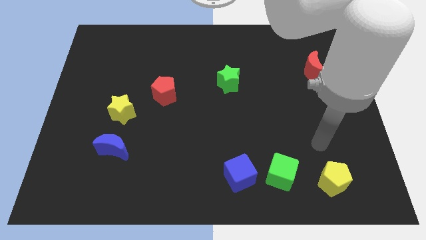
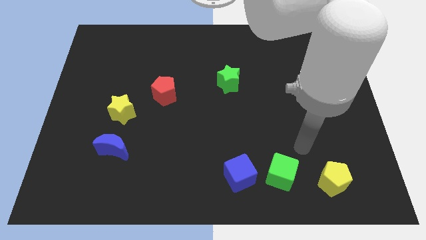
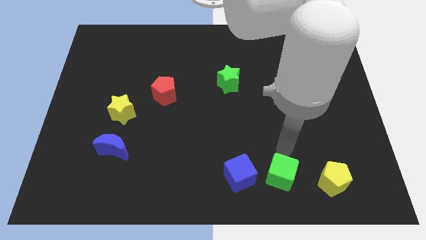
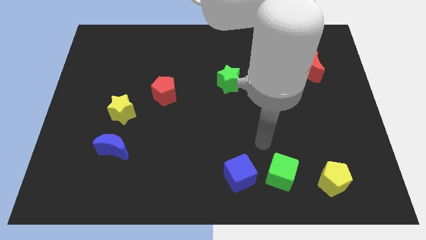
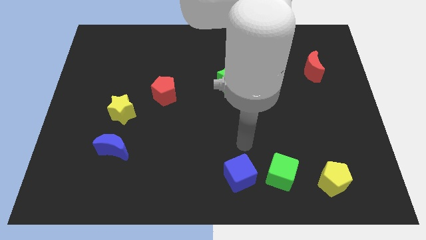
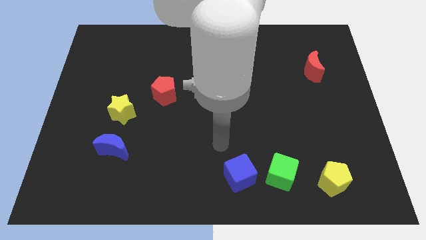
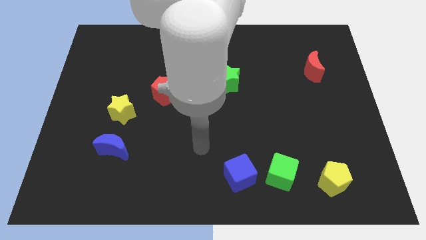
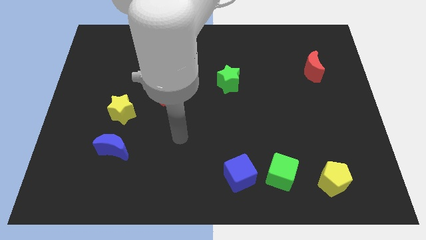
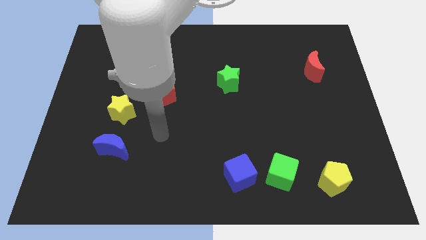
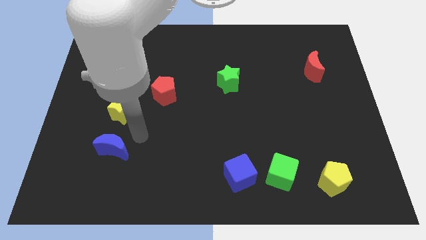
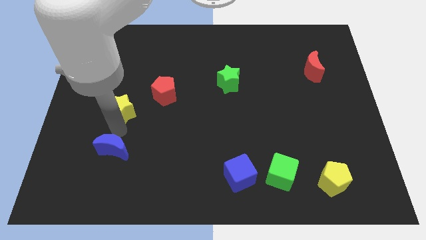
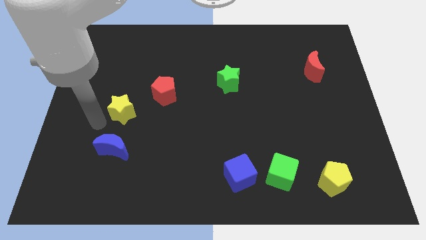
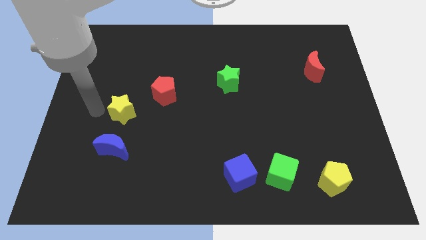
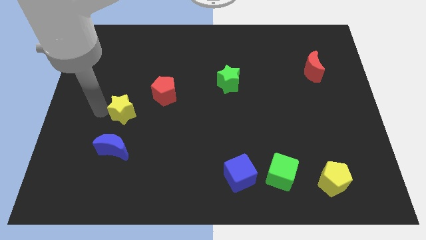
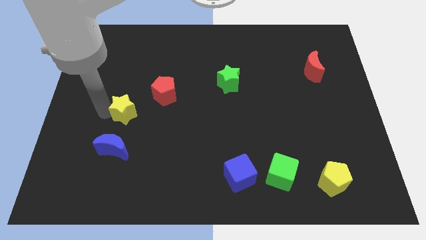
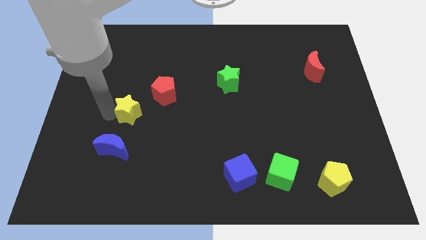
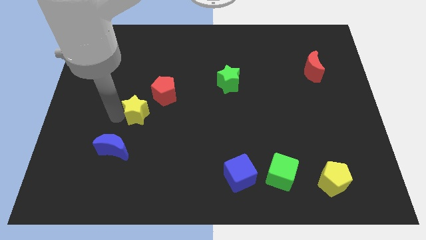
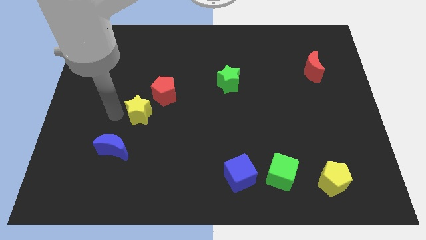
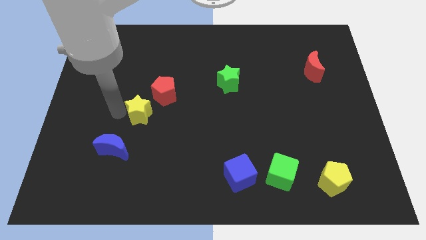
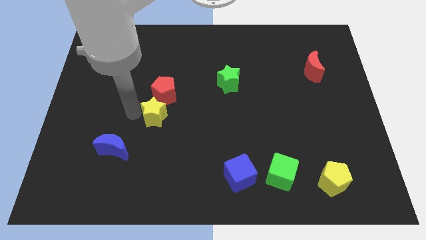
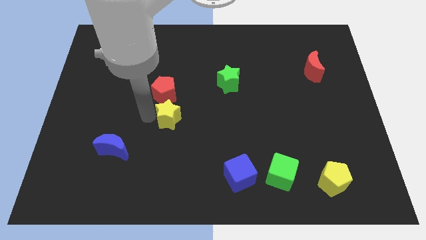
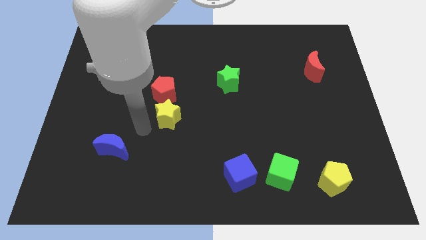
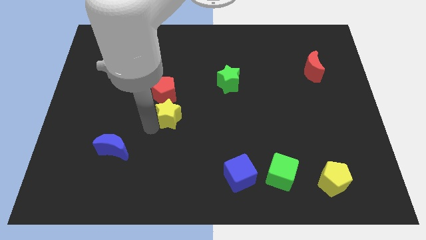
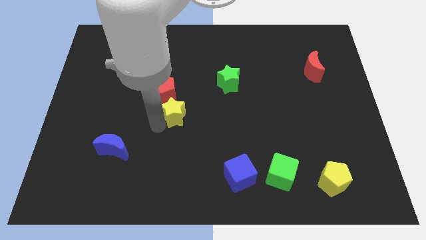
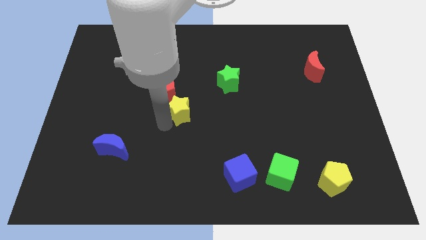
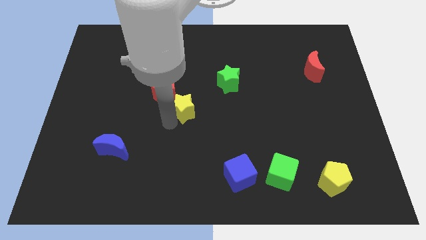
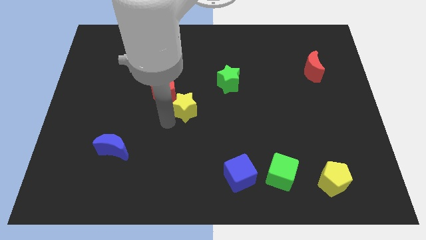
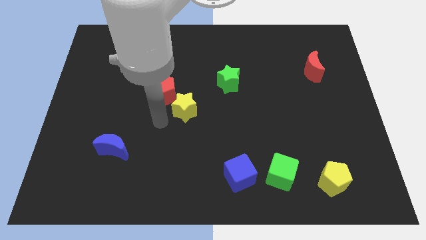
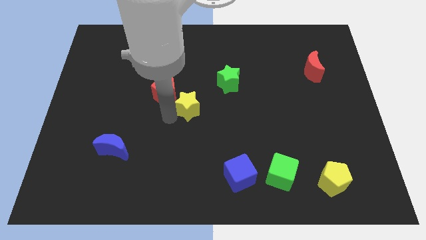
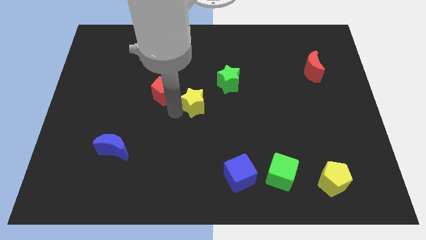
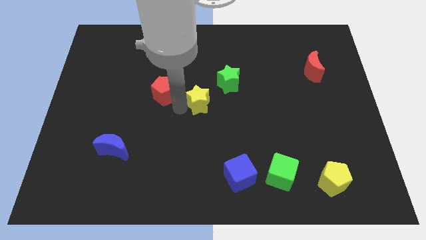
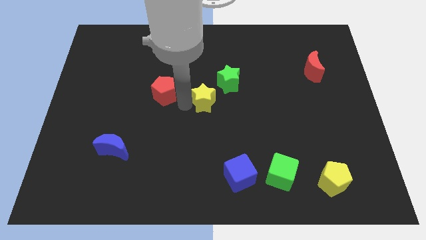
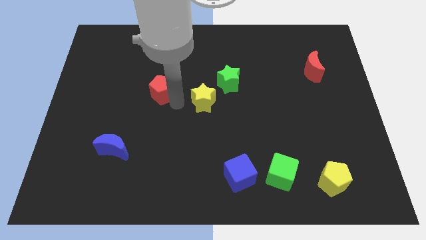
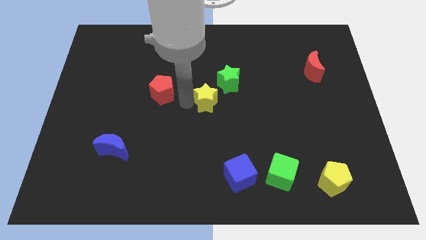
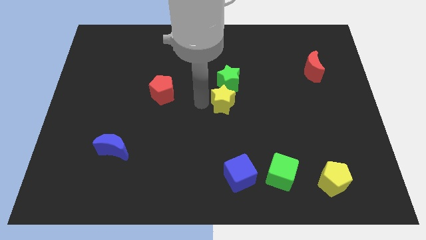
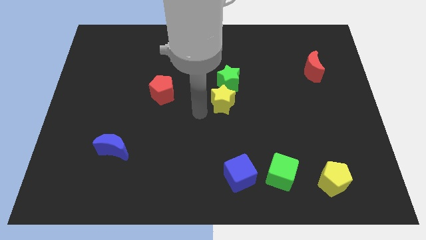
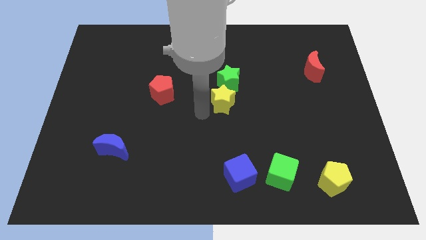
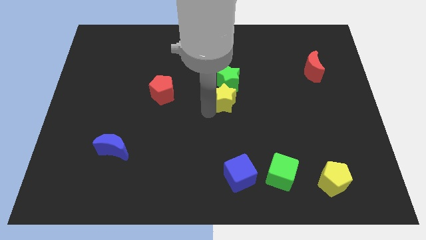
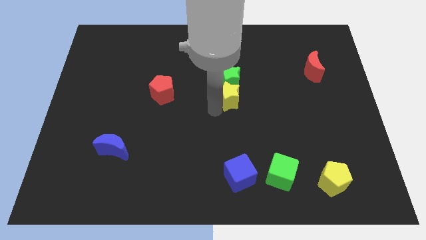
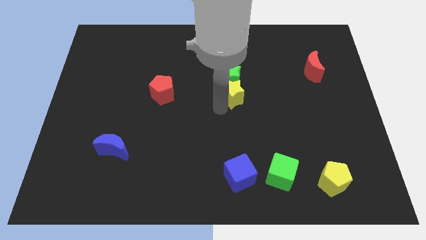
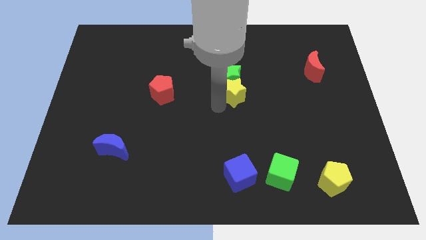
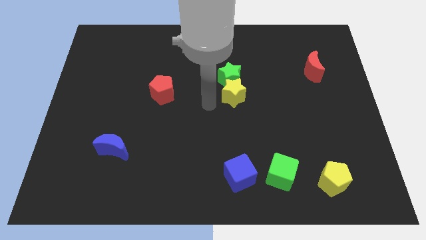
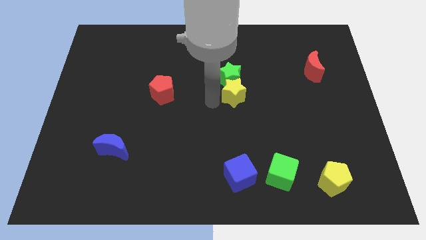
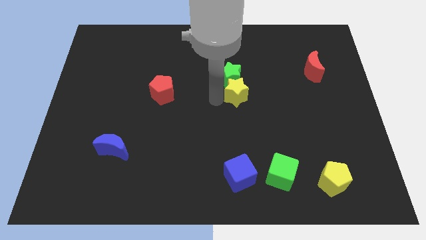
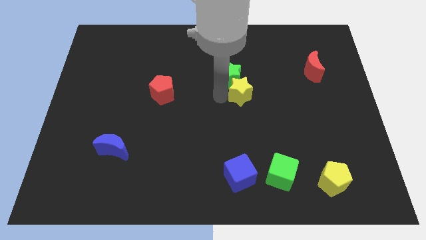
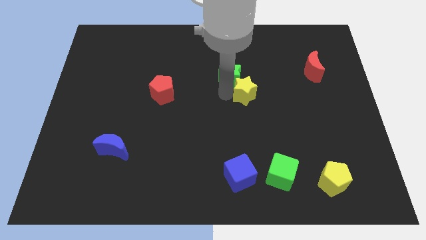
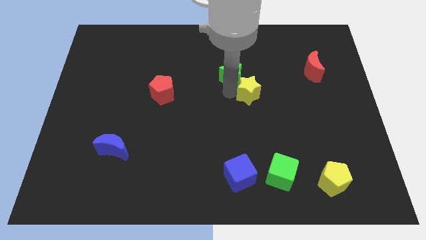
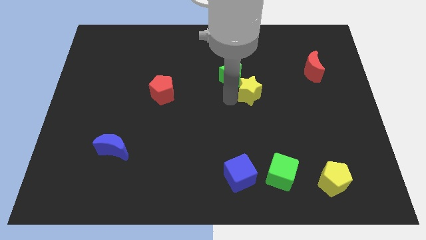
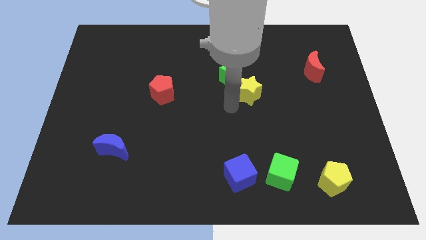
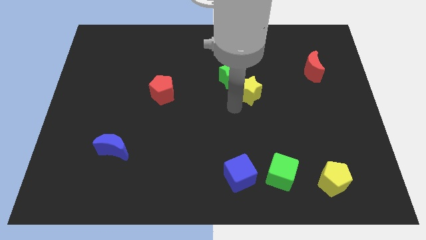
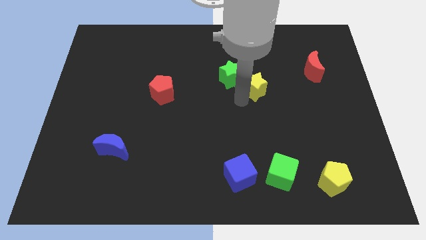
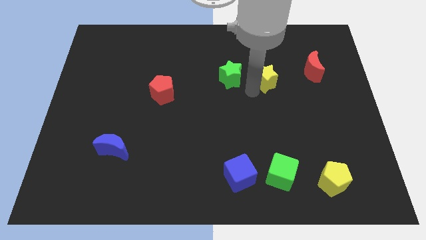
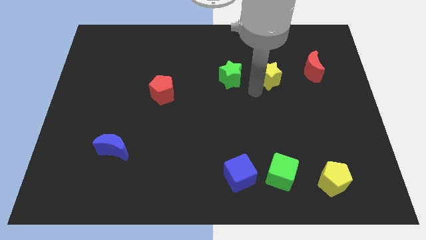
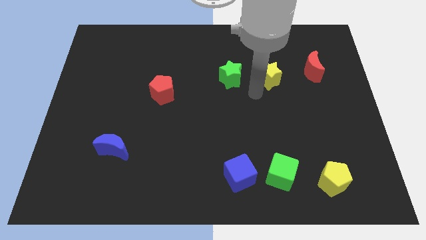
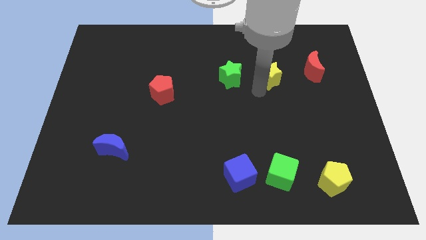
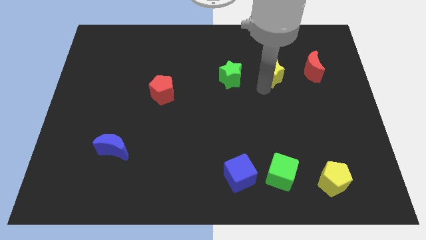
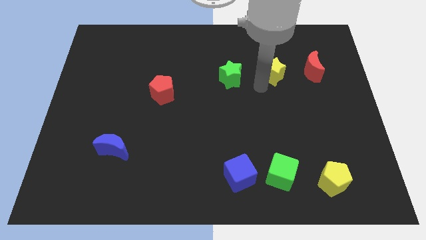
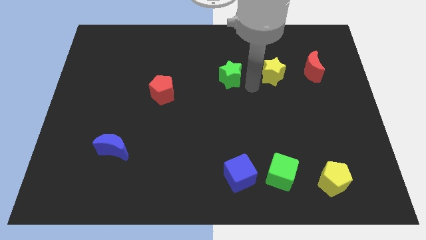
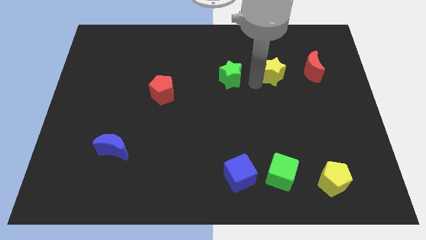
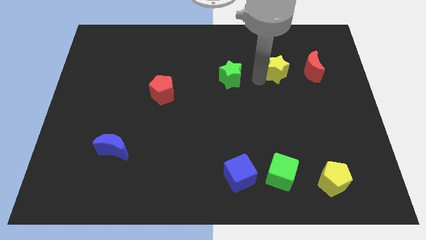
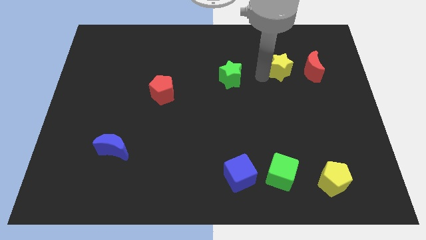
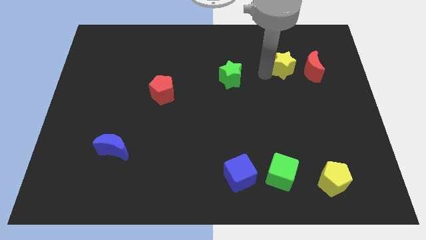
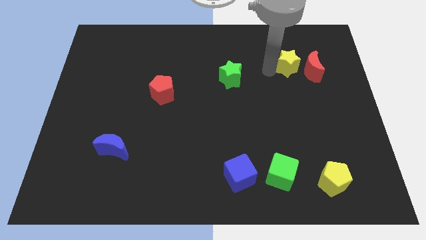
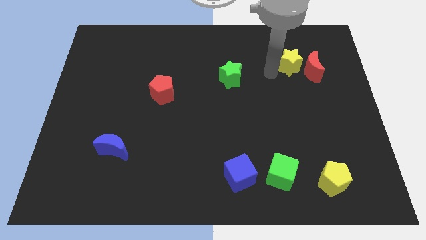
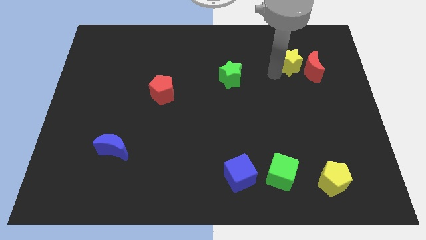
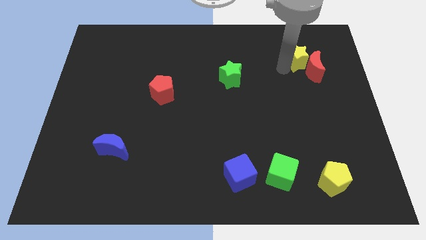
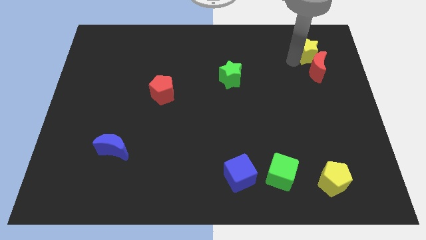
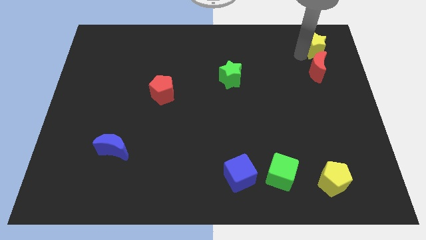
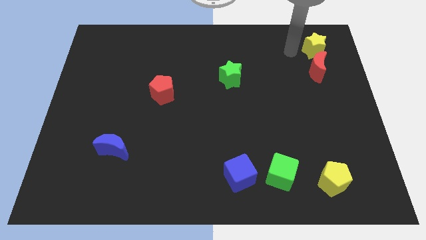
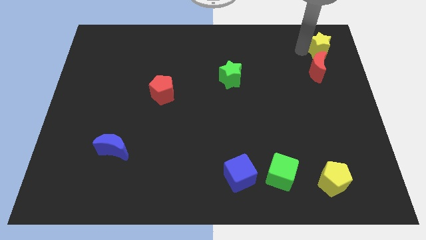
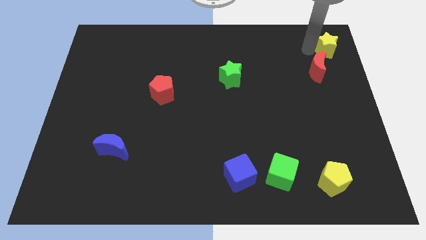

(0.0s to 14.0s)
push the yellow star to the top right corner
